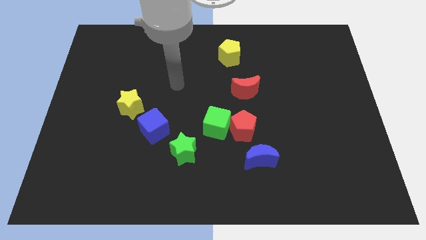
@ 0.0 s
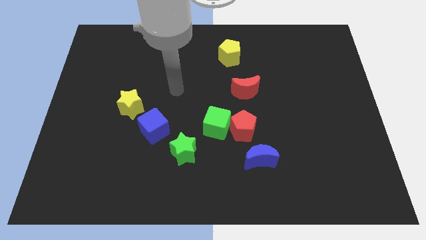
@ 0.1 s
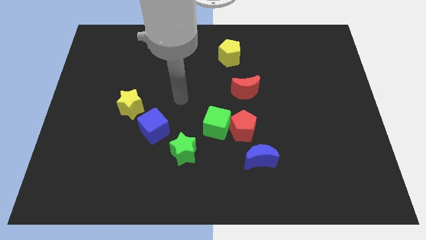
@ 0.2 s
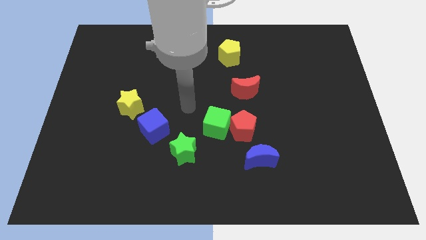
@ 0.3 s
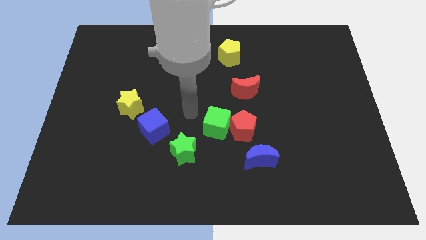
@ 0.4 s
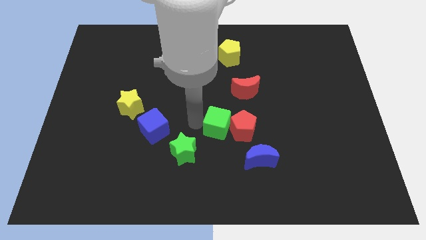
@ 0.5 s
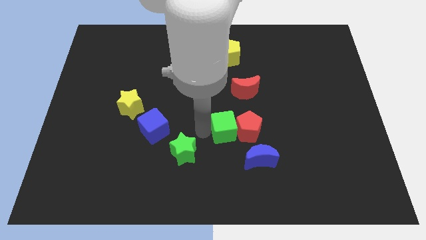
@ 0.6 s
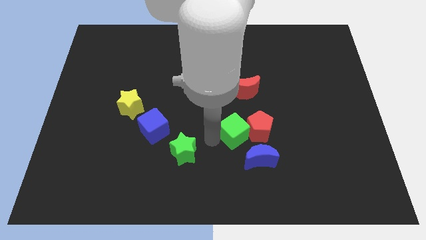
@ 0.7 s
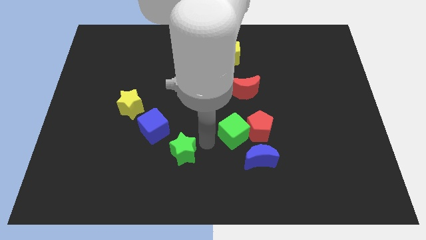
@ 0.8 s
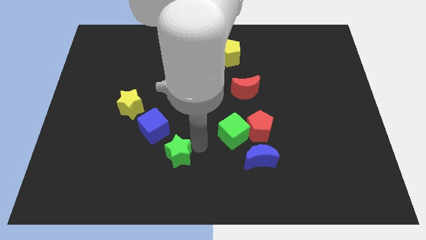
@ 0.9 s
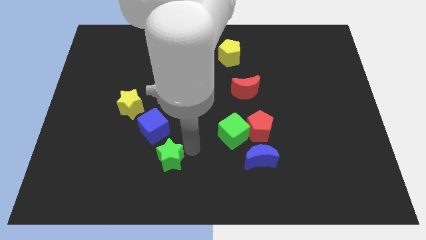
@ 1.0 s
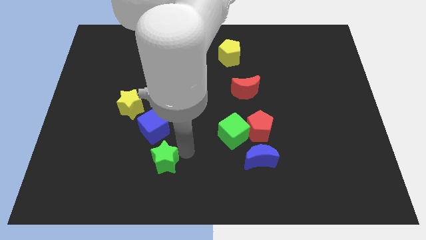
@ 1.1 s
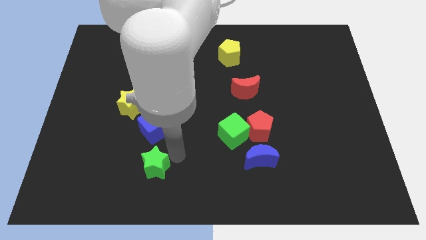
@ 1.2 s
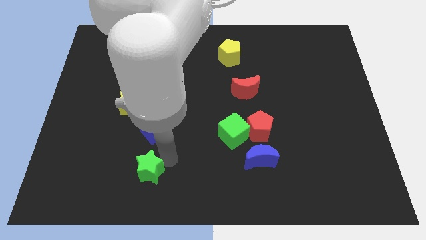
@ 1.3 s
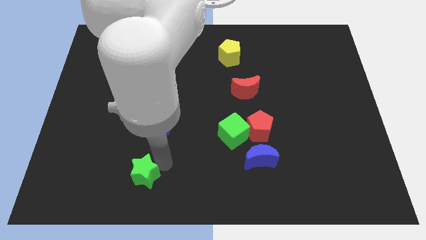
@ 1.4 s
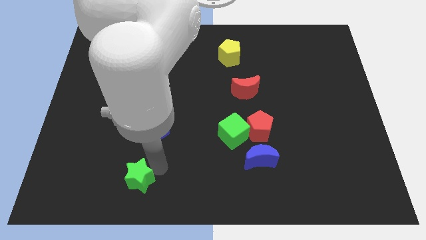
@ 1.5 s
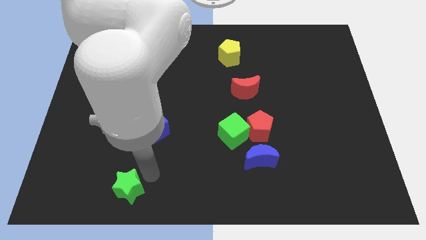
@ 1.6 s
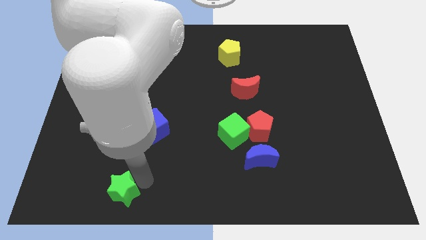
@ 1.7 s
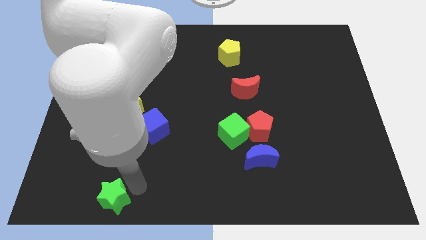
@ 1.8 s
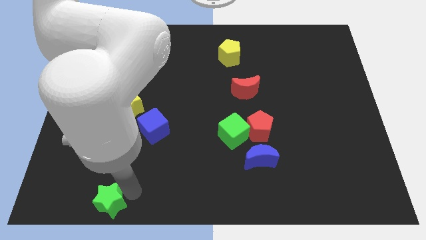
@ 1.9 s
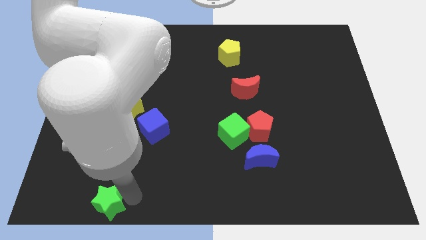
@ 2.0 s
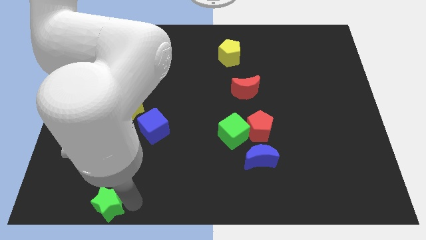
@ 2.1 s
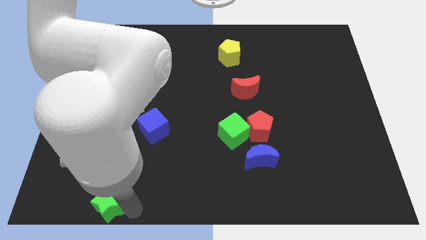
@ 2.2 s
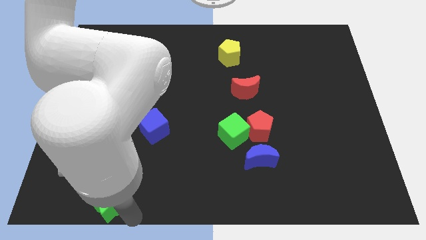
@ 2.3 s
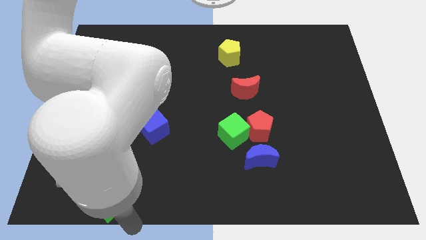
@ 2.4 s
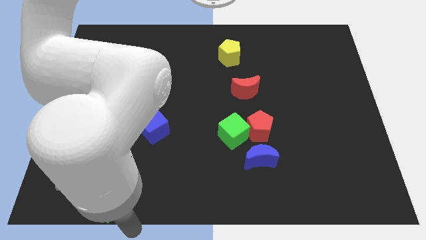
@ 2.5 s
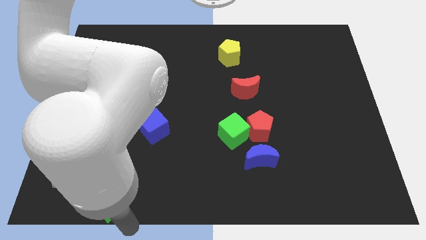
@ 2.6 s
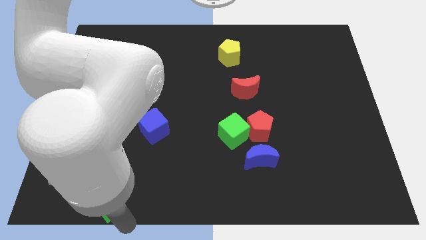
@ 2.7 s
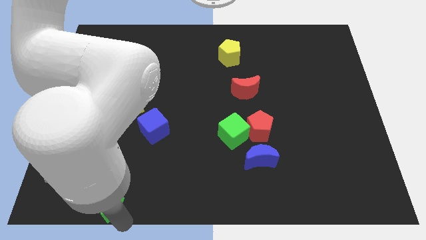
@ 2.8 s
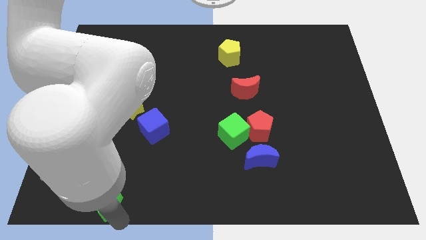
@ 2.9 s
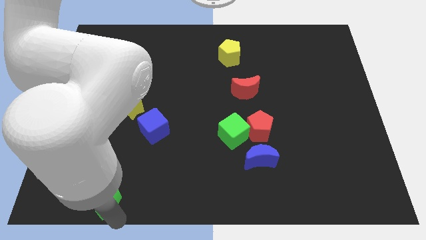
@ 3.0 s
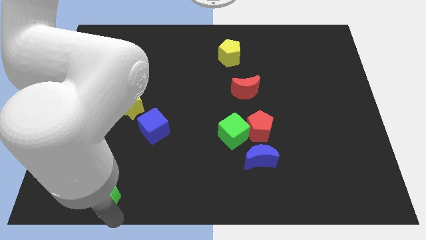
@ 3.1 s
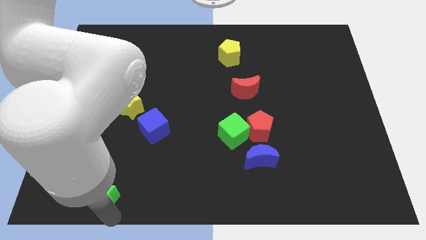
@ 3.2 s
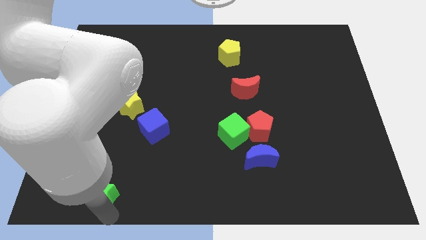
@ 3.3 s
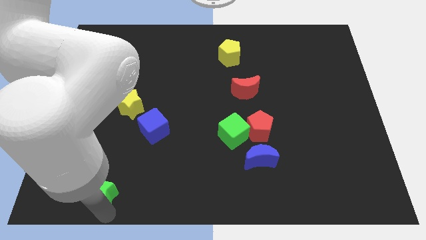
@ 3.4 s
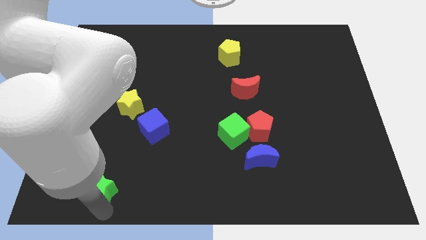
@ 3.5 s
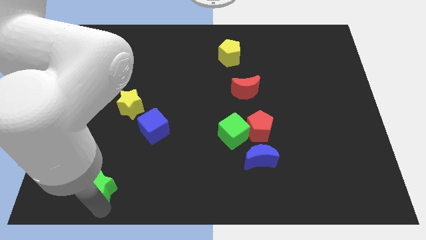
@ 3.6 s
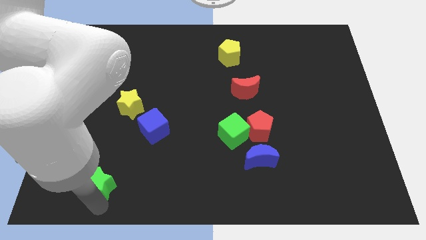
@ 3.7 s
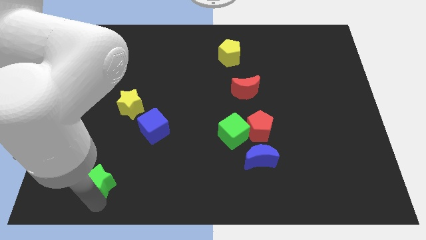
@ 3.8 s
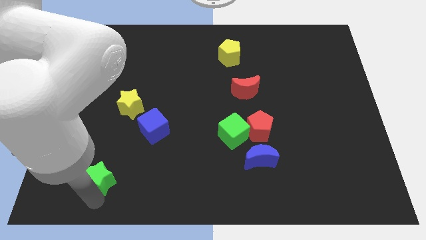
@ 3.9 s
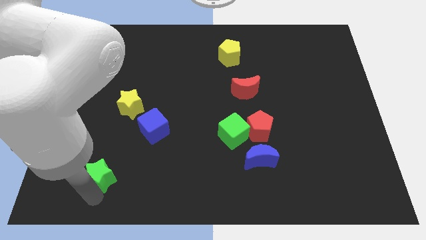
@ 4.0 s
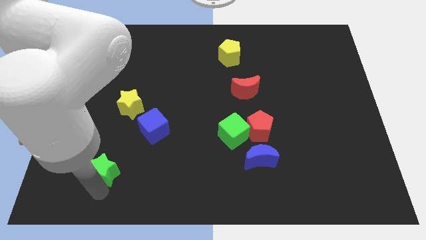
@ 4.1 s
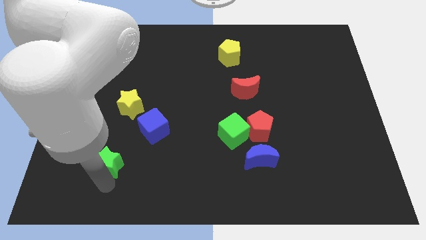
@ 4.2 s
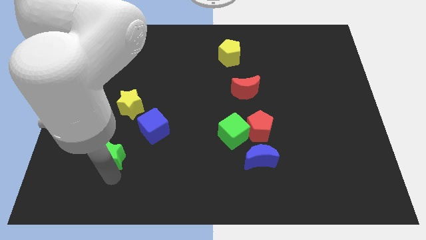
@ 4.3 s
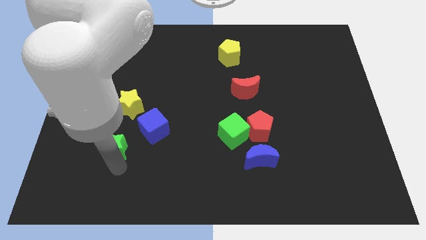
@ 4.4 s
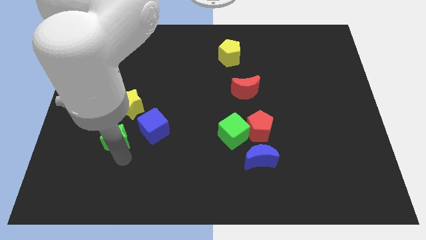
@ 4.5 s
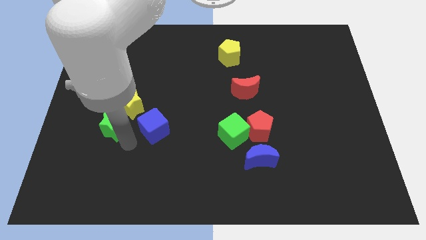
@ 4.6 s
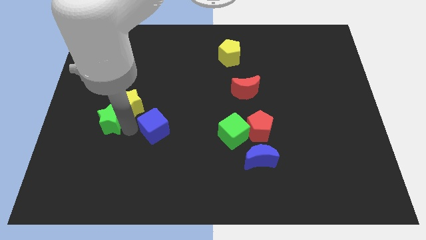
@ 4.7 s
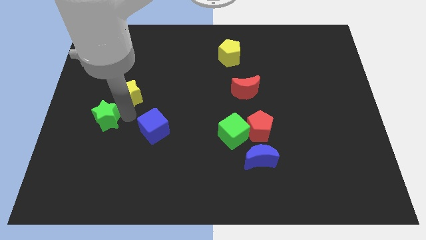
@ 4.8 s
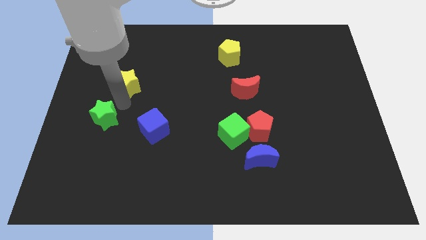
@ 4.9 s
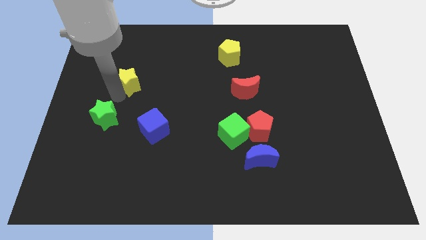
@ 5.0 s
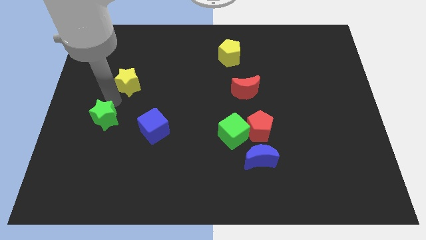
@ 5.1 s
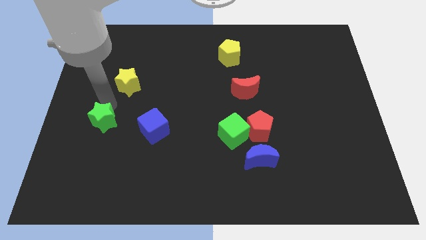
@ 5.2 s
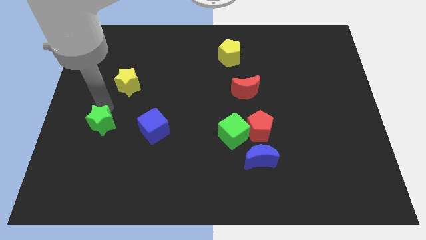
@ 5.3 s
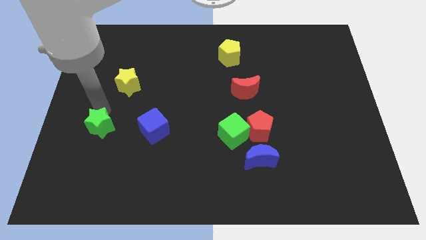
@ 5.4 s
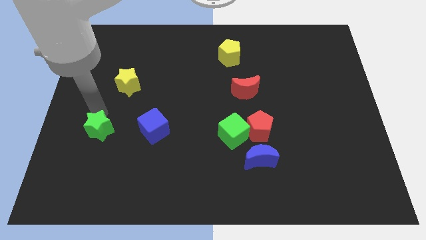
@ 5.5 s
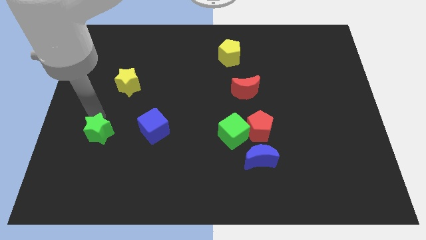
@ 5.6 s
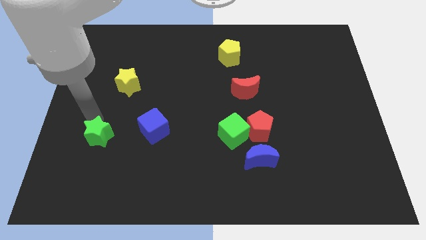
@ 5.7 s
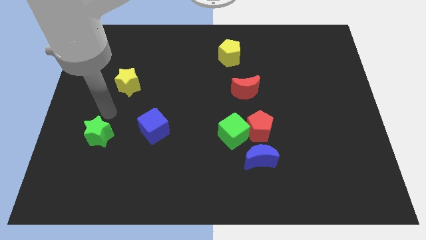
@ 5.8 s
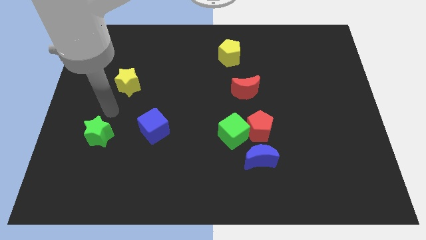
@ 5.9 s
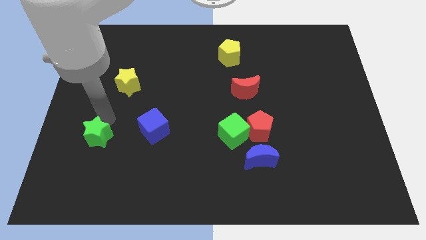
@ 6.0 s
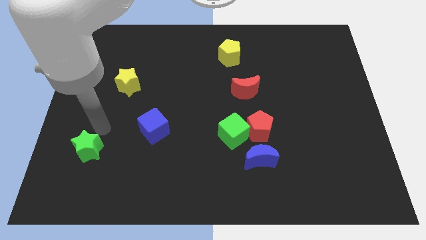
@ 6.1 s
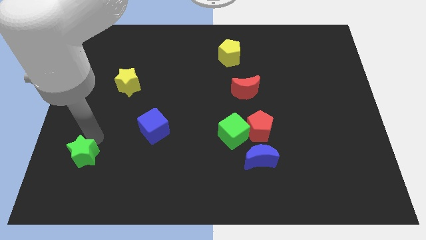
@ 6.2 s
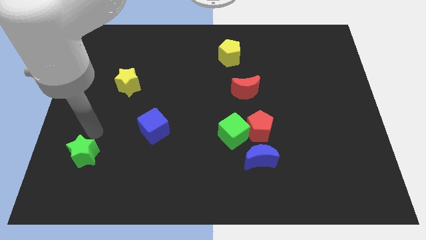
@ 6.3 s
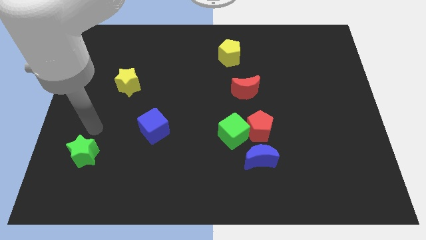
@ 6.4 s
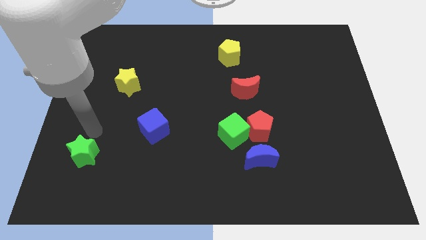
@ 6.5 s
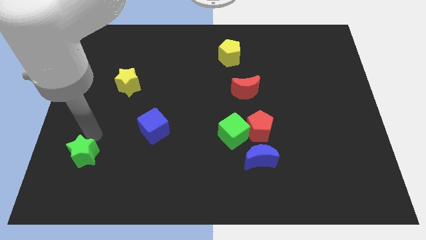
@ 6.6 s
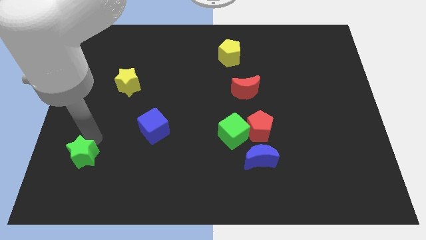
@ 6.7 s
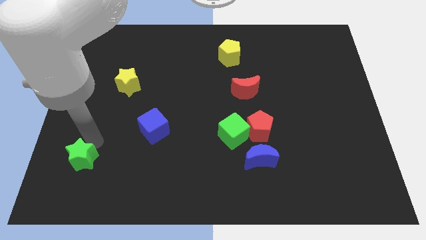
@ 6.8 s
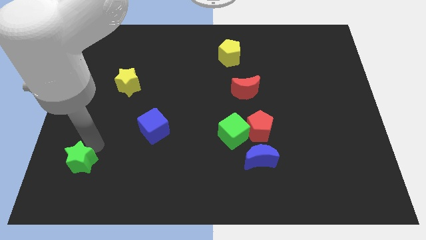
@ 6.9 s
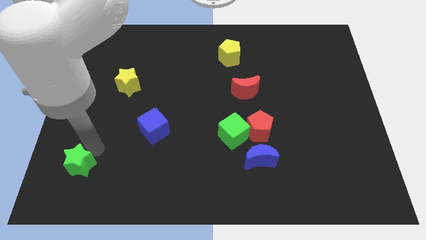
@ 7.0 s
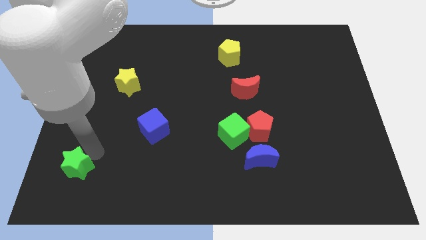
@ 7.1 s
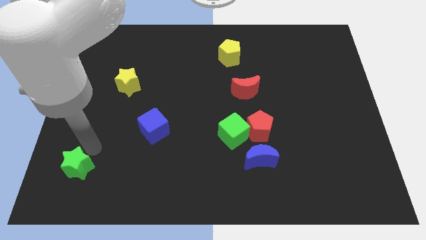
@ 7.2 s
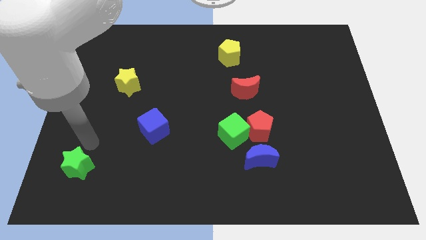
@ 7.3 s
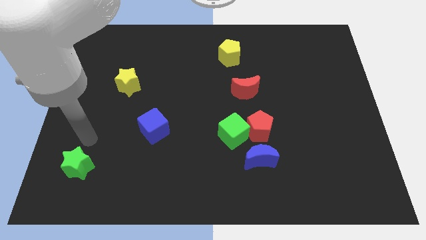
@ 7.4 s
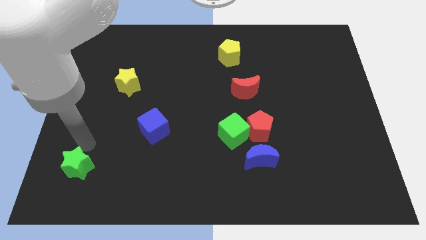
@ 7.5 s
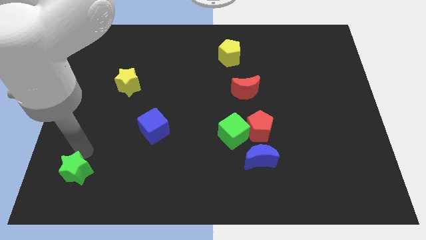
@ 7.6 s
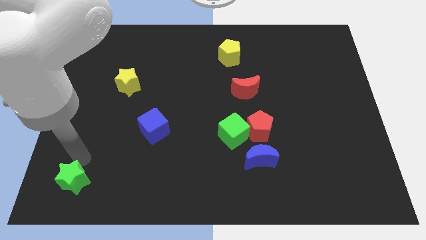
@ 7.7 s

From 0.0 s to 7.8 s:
move the green star to the bottom left
